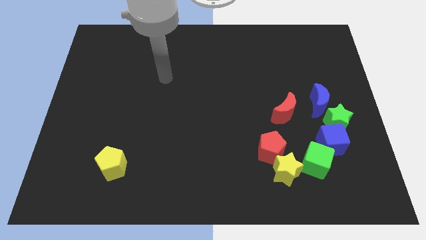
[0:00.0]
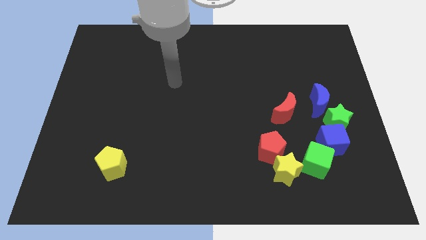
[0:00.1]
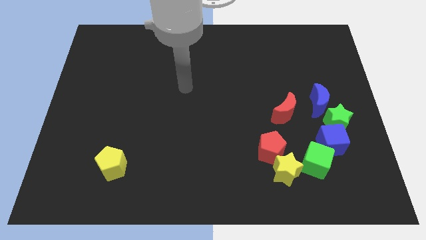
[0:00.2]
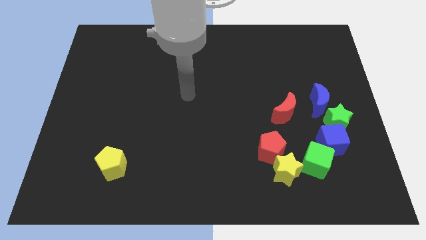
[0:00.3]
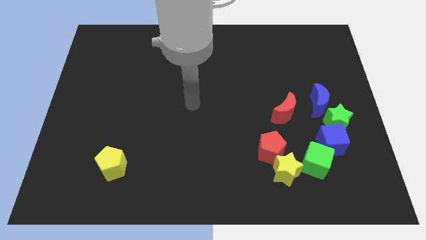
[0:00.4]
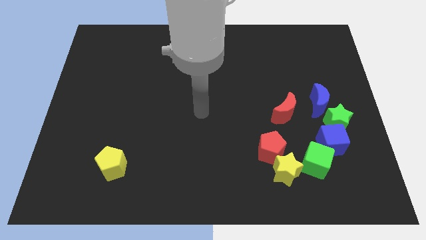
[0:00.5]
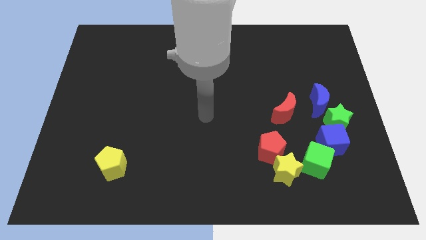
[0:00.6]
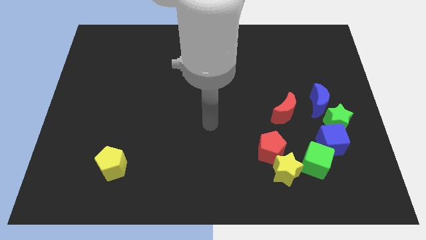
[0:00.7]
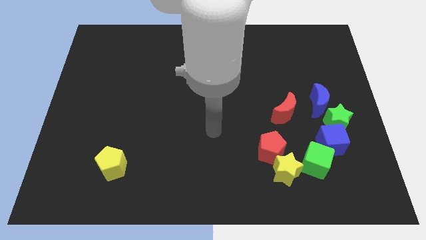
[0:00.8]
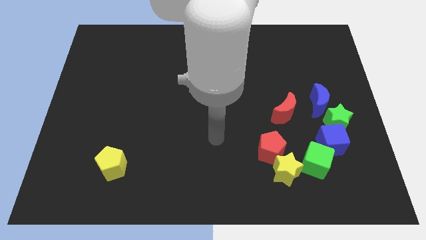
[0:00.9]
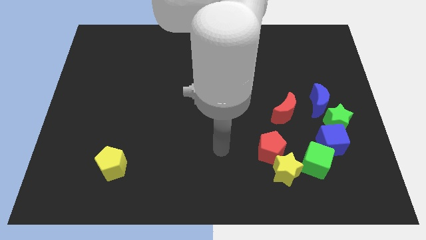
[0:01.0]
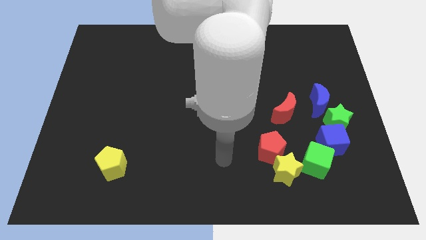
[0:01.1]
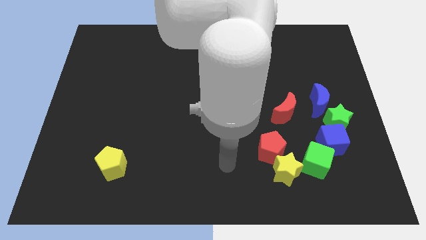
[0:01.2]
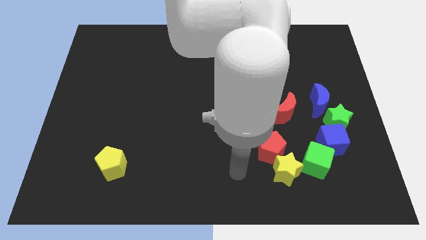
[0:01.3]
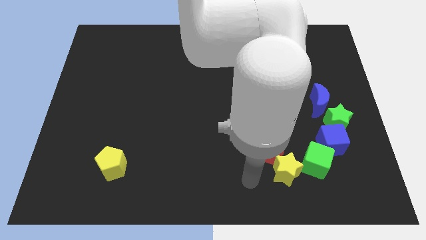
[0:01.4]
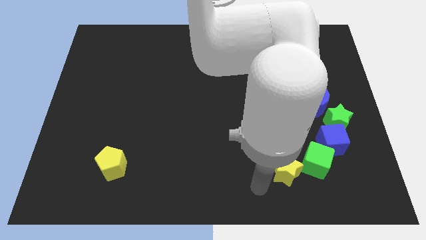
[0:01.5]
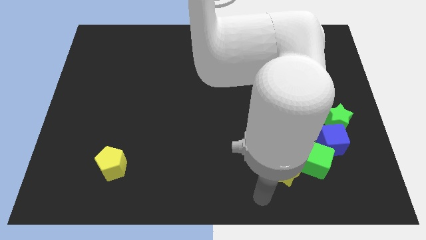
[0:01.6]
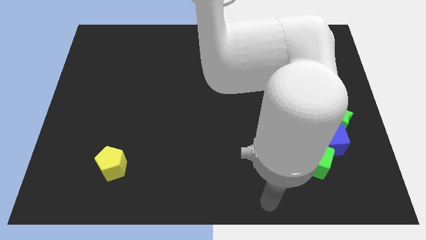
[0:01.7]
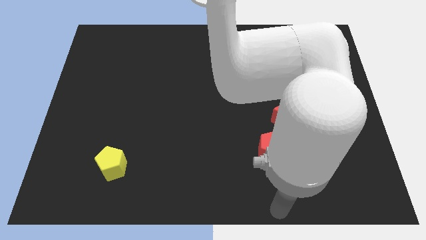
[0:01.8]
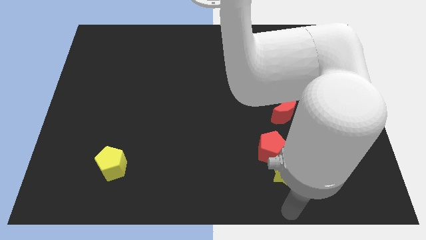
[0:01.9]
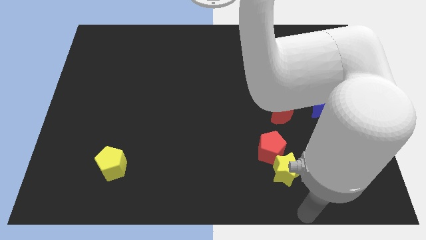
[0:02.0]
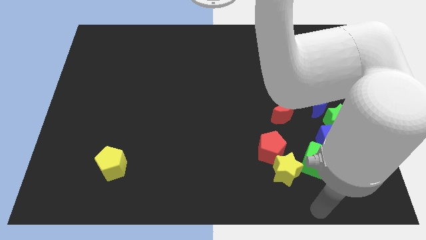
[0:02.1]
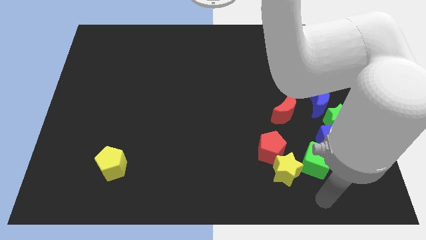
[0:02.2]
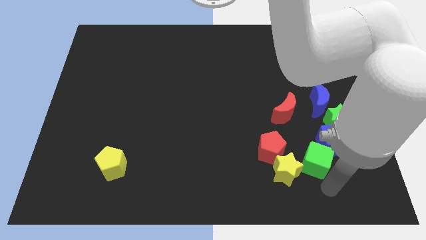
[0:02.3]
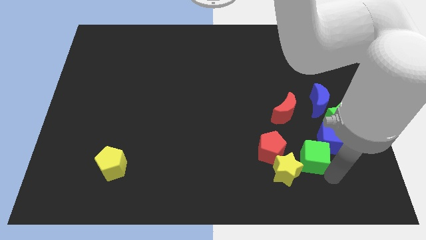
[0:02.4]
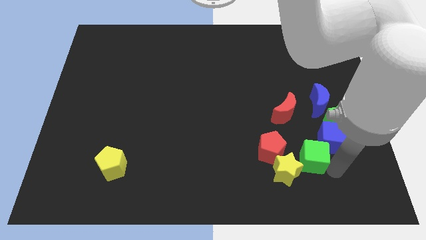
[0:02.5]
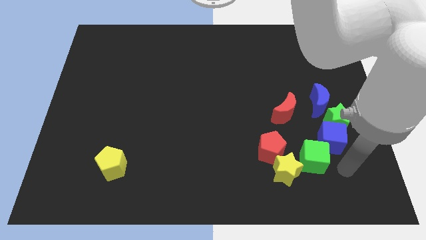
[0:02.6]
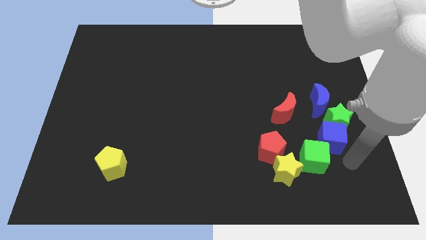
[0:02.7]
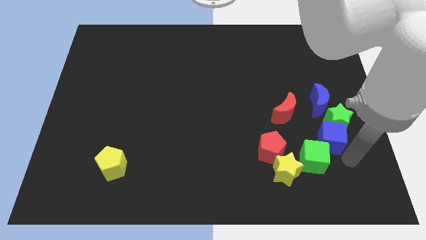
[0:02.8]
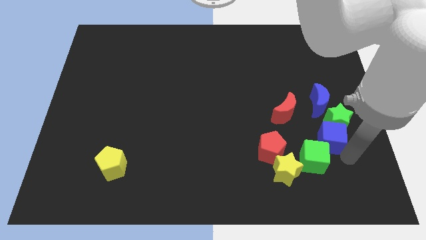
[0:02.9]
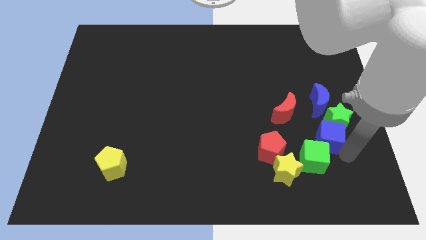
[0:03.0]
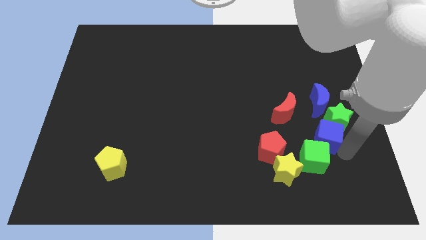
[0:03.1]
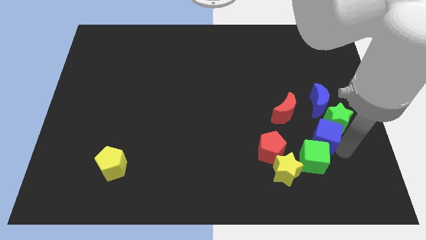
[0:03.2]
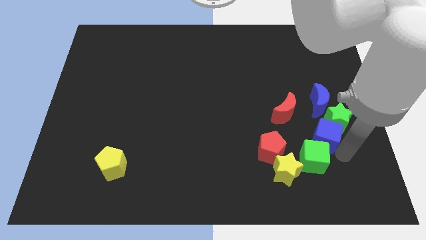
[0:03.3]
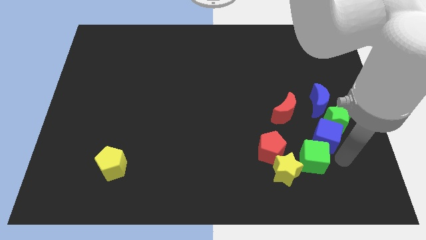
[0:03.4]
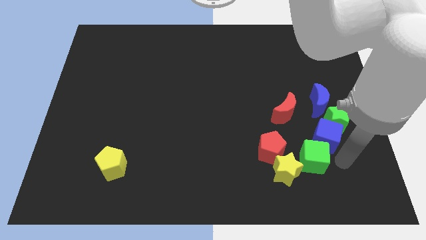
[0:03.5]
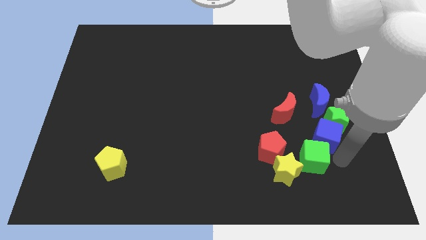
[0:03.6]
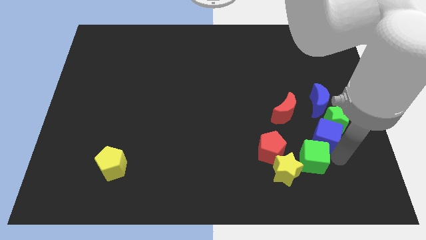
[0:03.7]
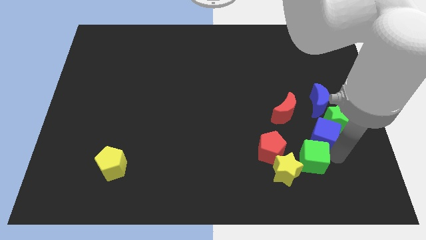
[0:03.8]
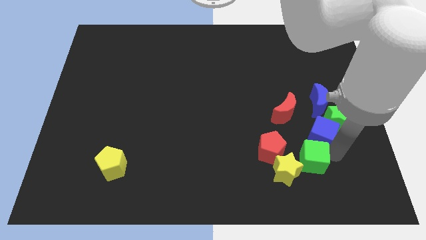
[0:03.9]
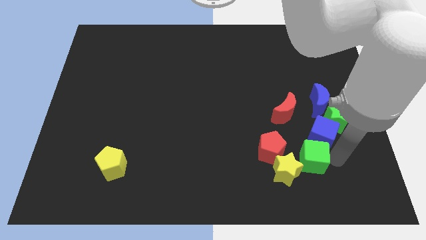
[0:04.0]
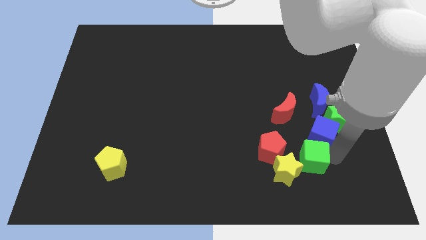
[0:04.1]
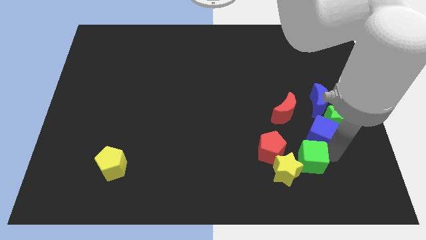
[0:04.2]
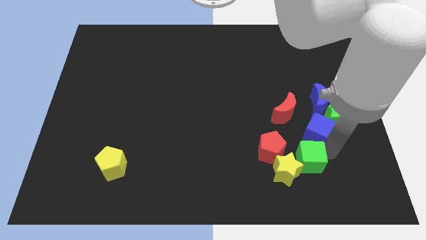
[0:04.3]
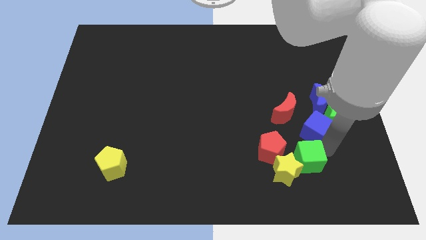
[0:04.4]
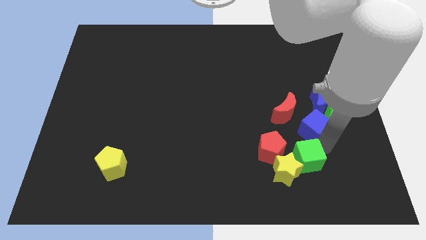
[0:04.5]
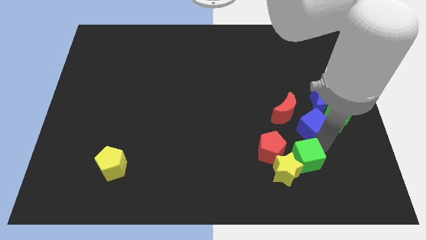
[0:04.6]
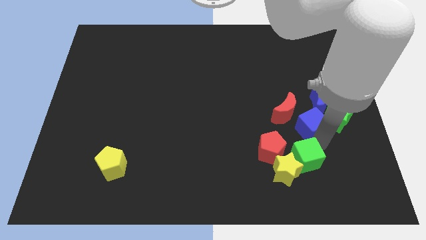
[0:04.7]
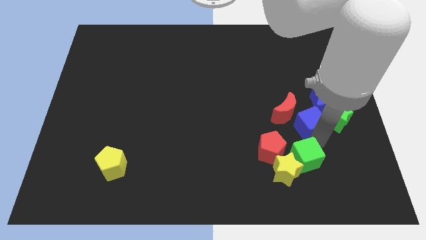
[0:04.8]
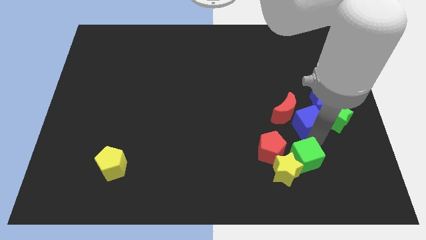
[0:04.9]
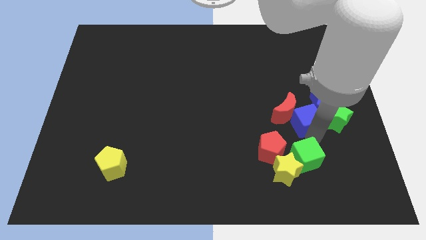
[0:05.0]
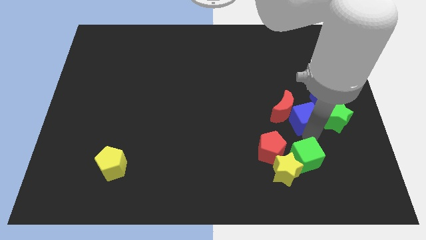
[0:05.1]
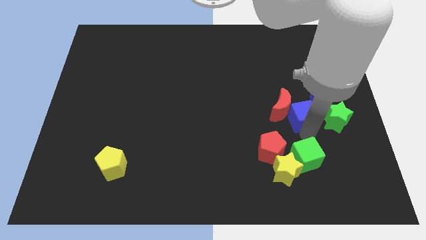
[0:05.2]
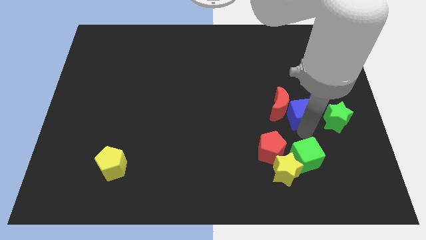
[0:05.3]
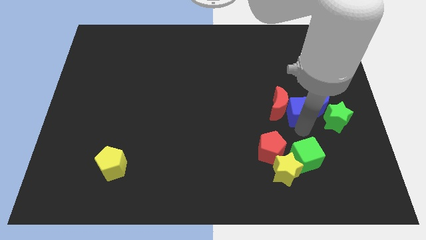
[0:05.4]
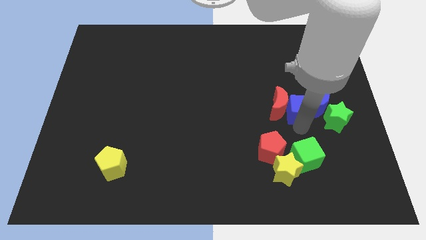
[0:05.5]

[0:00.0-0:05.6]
slightly move the blue cube upwards

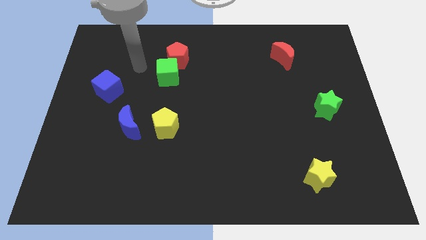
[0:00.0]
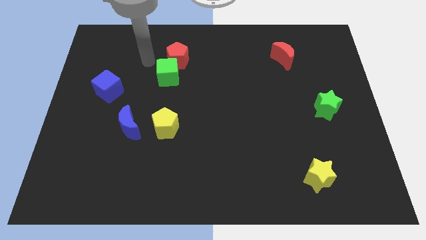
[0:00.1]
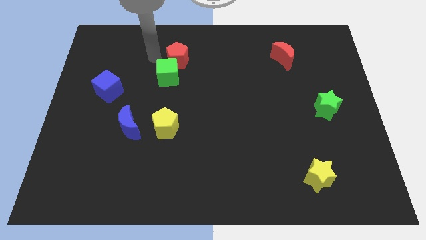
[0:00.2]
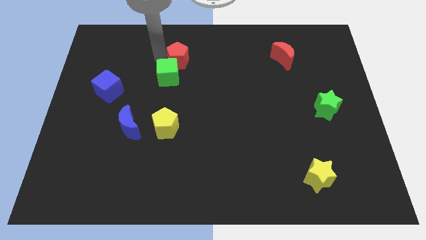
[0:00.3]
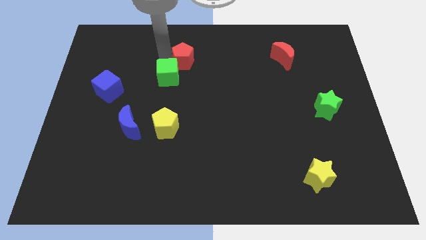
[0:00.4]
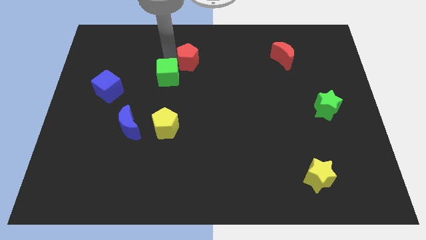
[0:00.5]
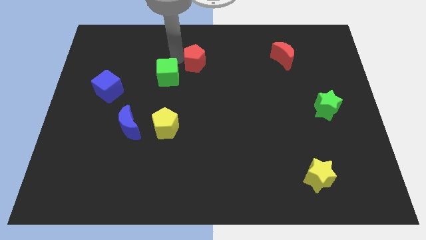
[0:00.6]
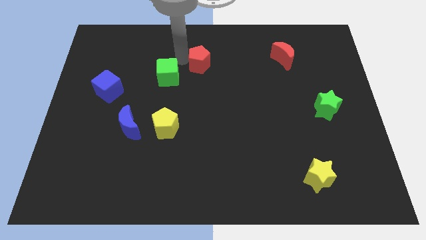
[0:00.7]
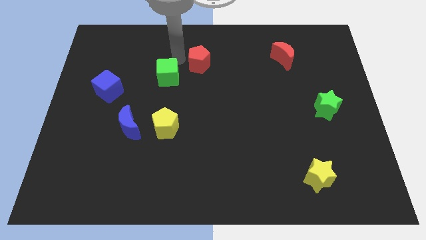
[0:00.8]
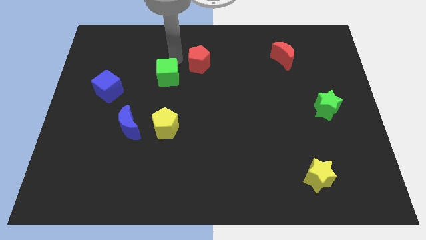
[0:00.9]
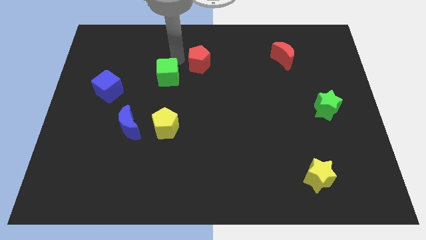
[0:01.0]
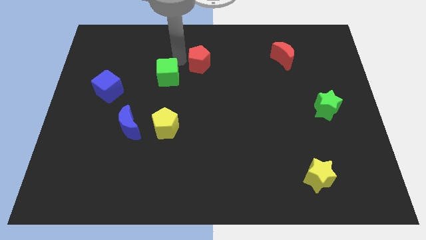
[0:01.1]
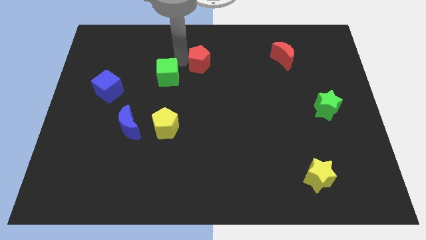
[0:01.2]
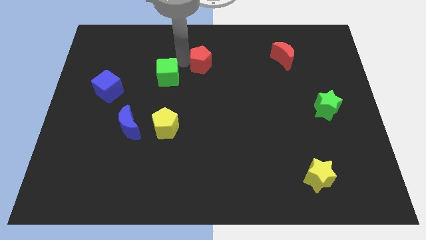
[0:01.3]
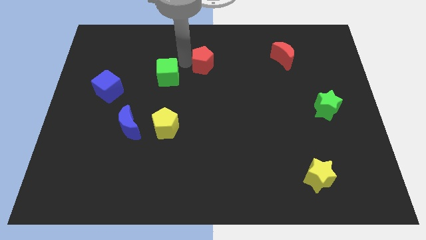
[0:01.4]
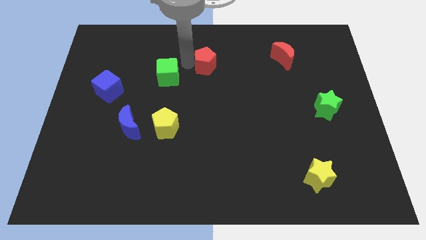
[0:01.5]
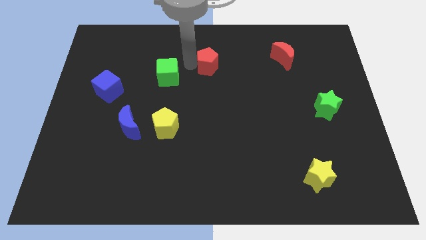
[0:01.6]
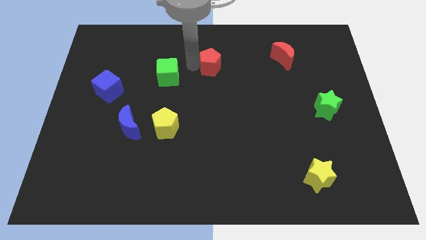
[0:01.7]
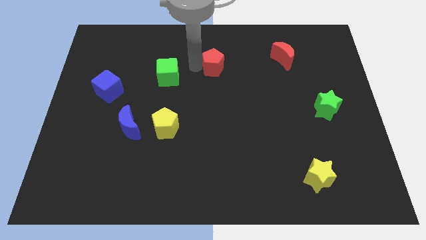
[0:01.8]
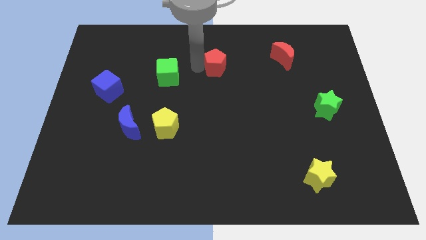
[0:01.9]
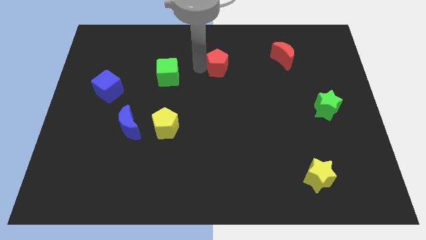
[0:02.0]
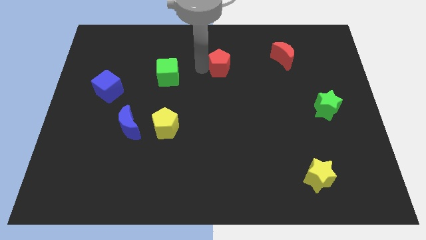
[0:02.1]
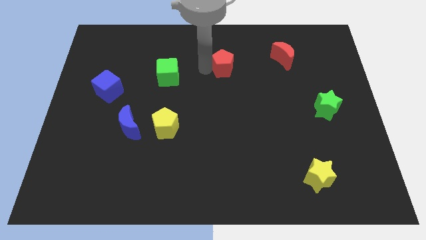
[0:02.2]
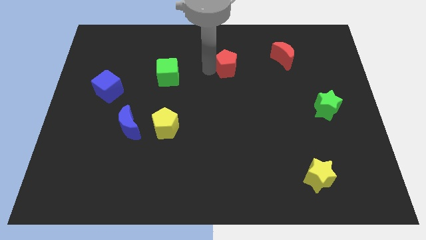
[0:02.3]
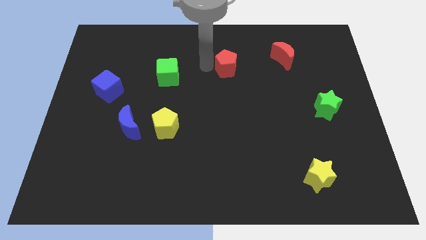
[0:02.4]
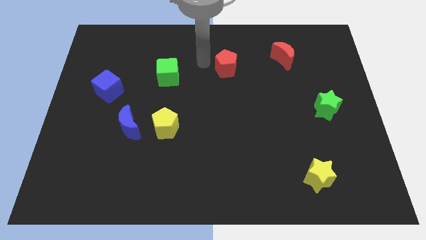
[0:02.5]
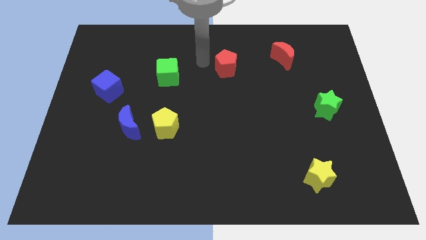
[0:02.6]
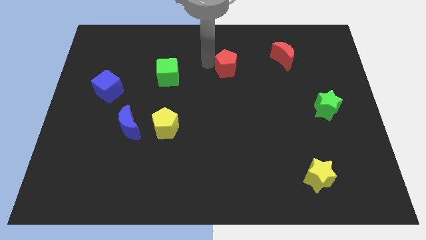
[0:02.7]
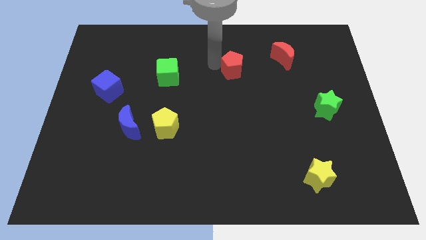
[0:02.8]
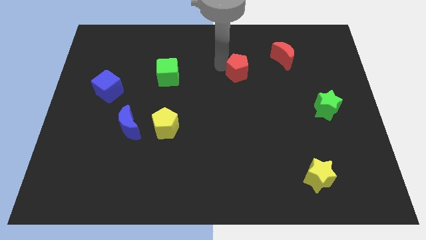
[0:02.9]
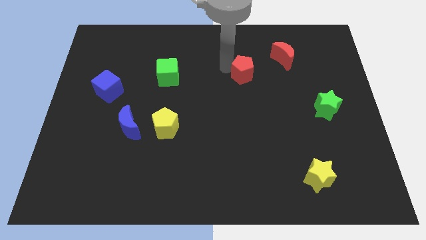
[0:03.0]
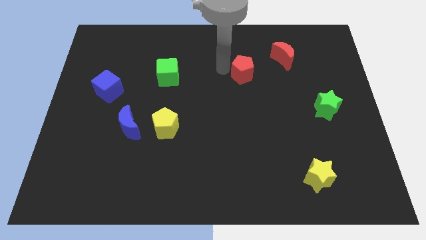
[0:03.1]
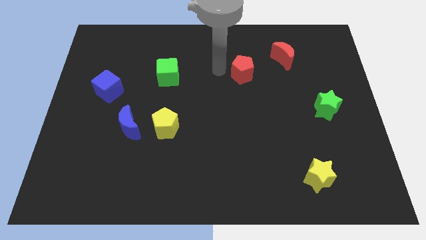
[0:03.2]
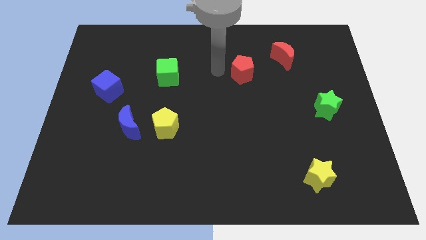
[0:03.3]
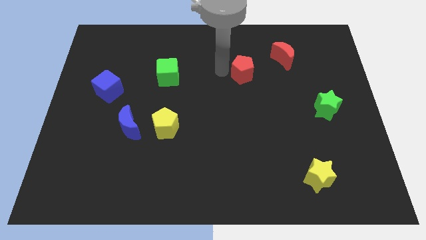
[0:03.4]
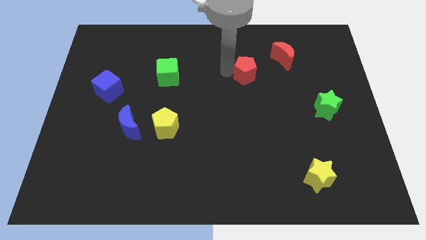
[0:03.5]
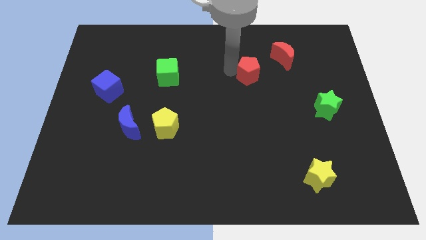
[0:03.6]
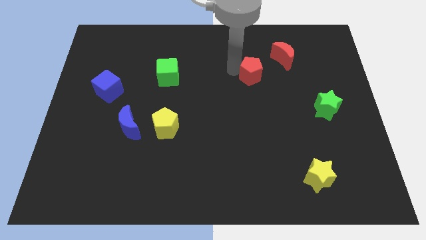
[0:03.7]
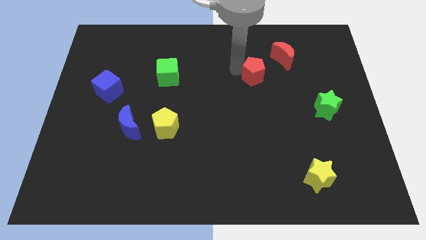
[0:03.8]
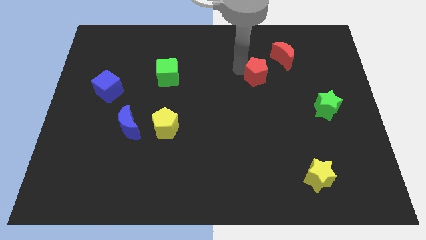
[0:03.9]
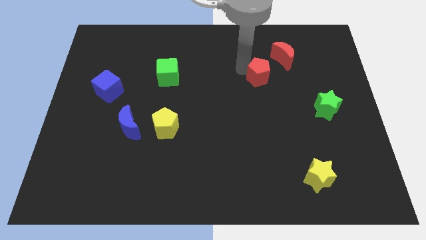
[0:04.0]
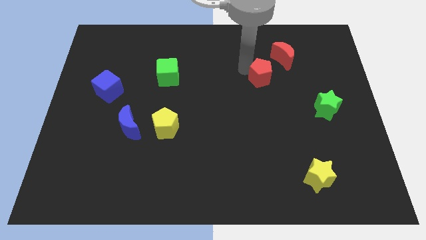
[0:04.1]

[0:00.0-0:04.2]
push the red pentagon to the right
